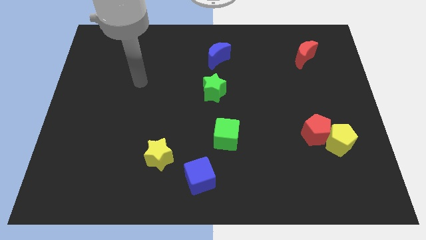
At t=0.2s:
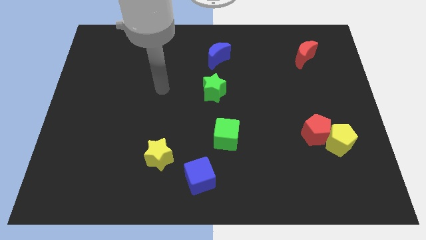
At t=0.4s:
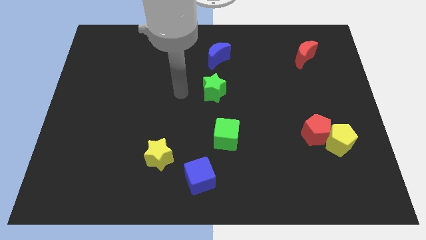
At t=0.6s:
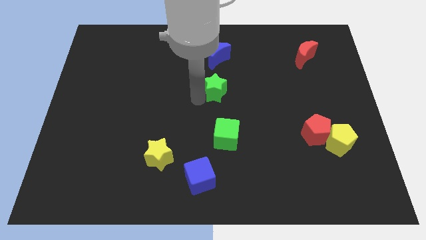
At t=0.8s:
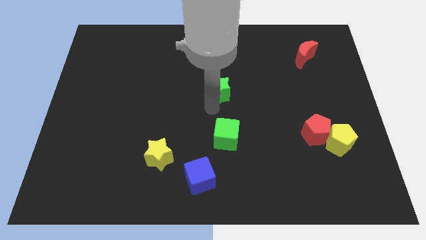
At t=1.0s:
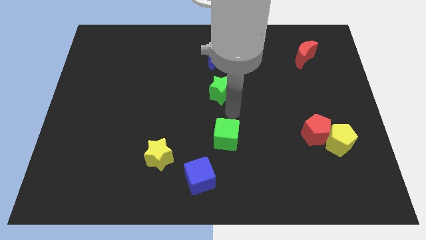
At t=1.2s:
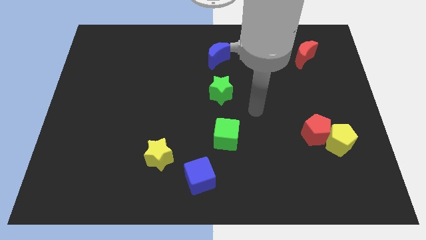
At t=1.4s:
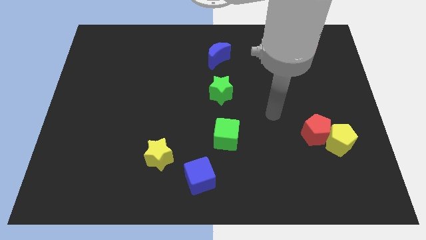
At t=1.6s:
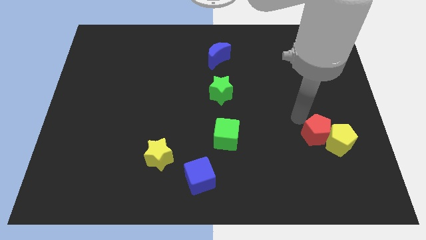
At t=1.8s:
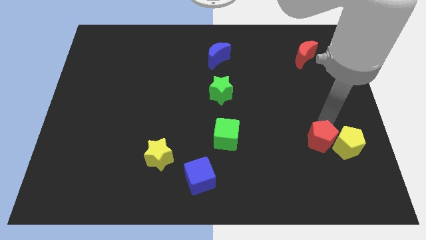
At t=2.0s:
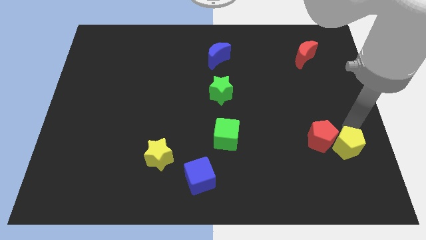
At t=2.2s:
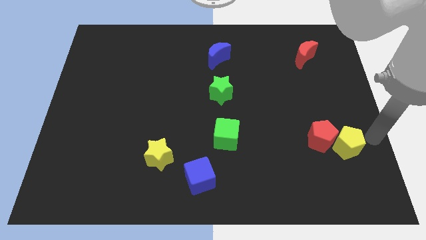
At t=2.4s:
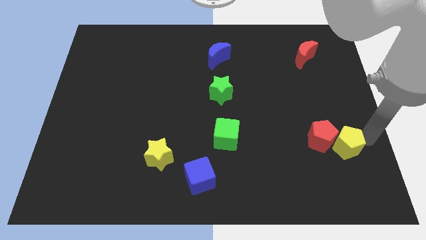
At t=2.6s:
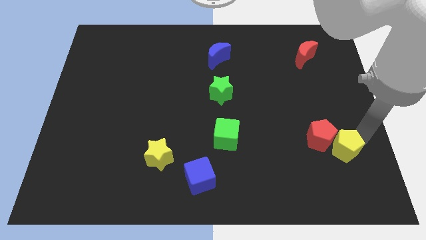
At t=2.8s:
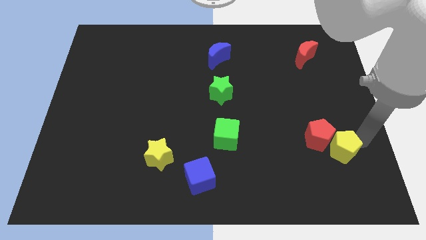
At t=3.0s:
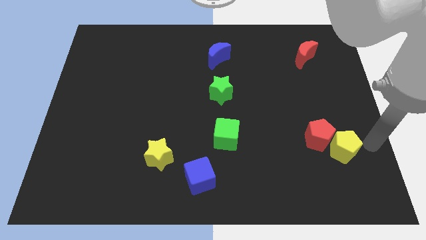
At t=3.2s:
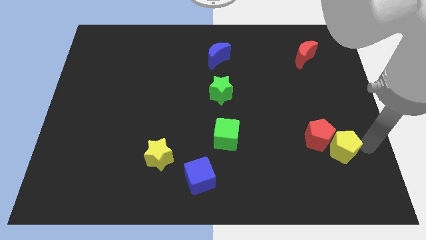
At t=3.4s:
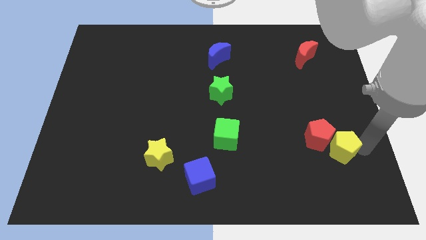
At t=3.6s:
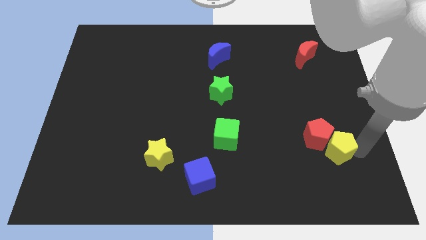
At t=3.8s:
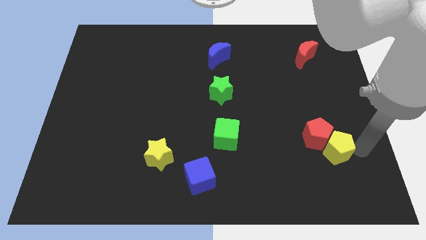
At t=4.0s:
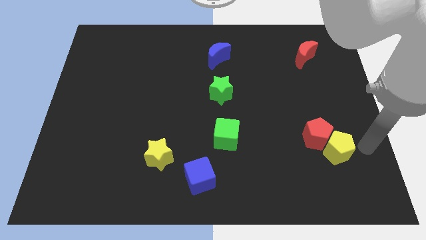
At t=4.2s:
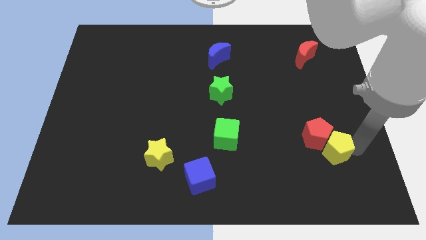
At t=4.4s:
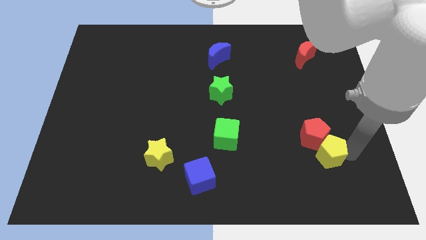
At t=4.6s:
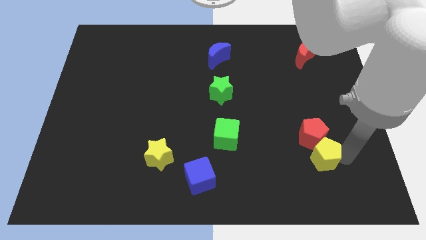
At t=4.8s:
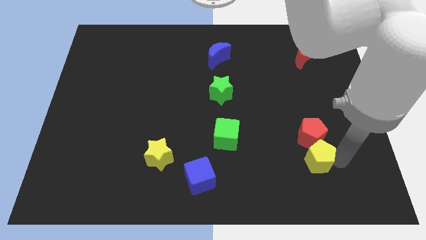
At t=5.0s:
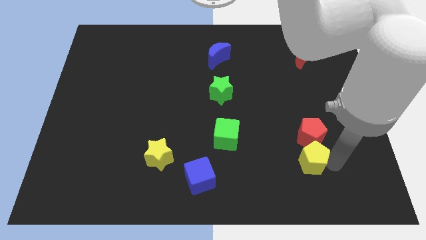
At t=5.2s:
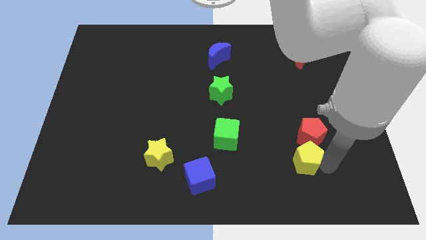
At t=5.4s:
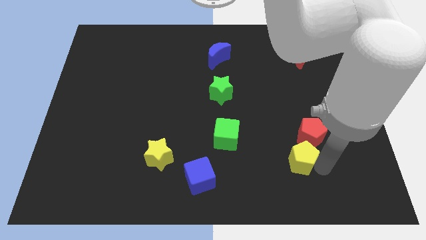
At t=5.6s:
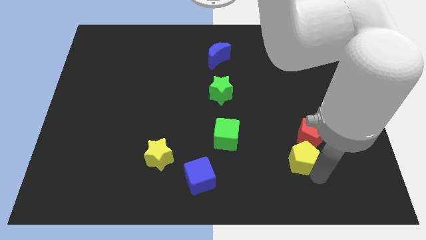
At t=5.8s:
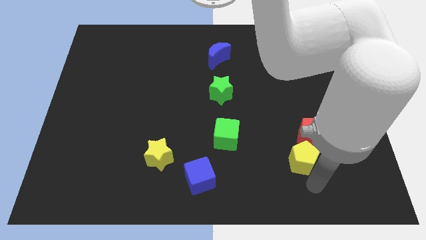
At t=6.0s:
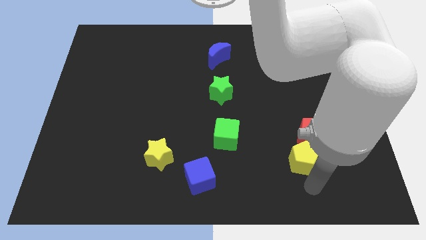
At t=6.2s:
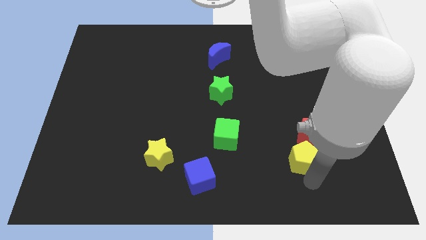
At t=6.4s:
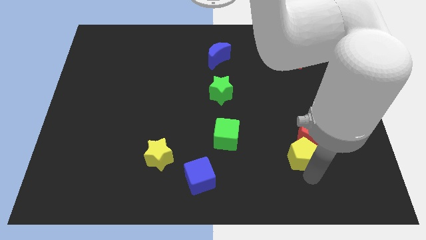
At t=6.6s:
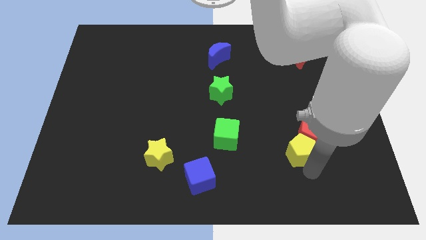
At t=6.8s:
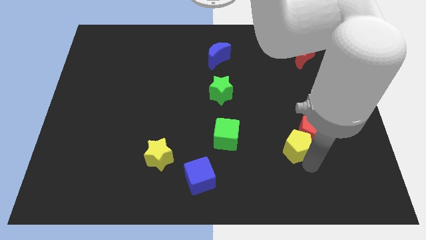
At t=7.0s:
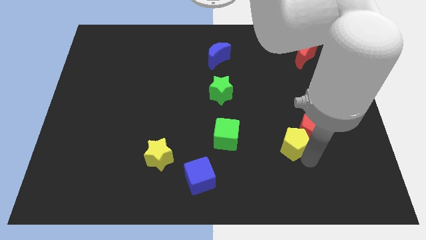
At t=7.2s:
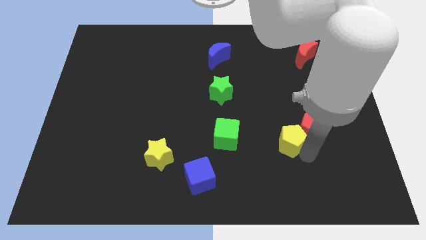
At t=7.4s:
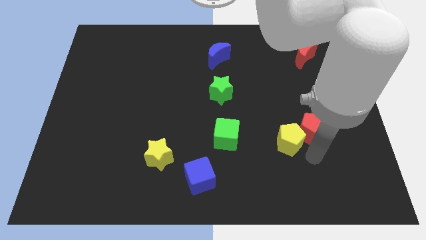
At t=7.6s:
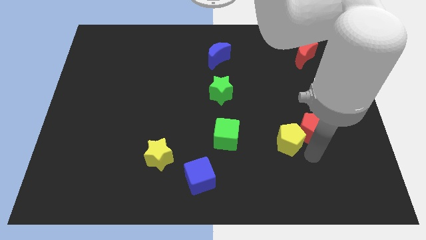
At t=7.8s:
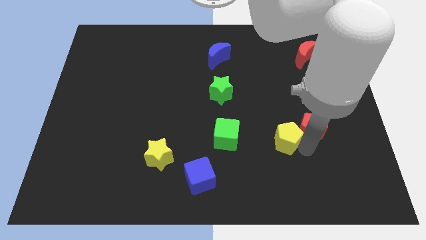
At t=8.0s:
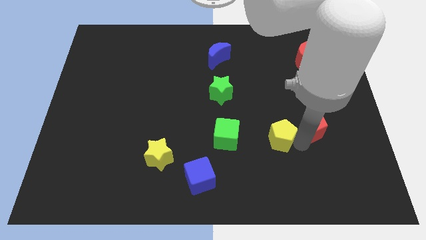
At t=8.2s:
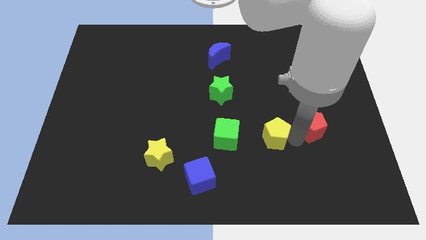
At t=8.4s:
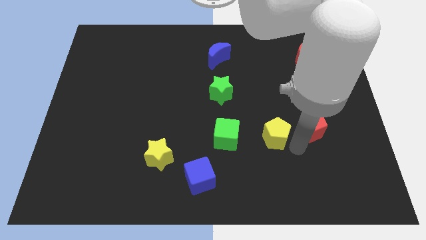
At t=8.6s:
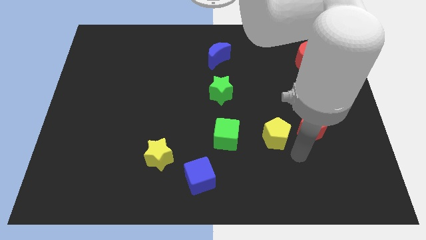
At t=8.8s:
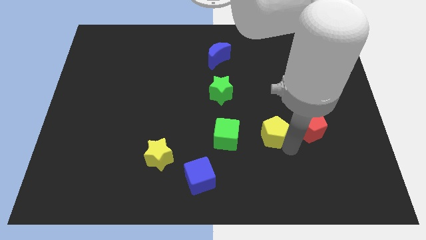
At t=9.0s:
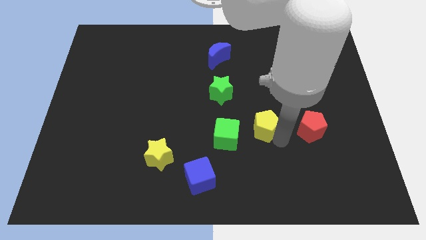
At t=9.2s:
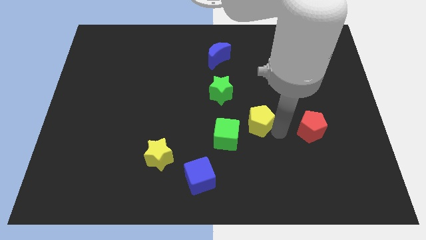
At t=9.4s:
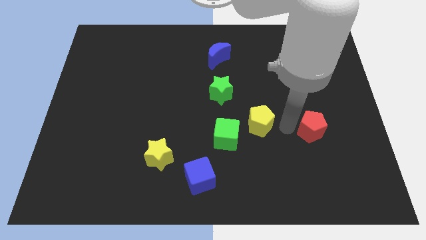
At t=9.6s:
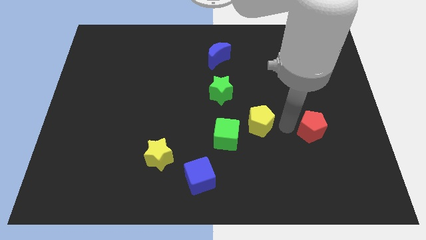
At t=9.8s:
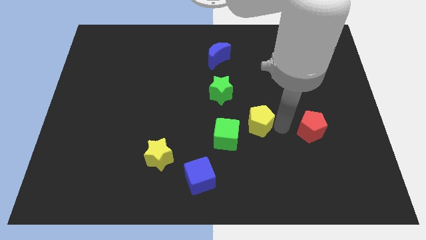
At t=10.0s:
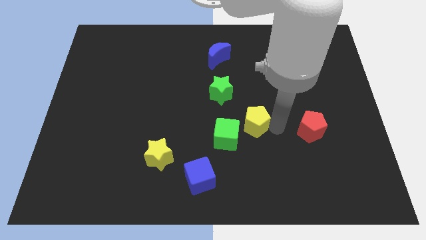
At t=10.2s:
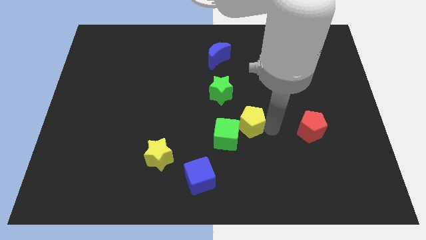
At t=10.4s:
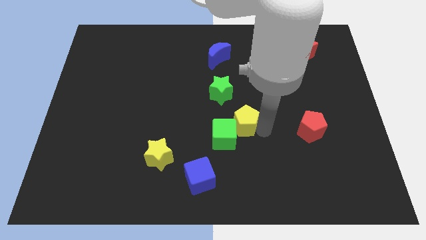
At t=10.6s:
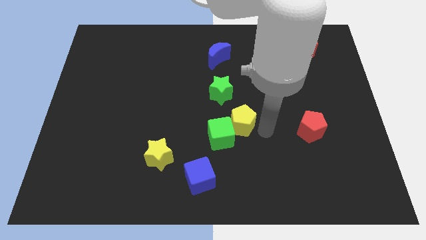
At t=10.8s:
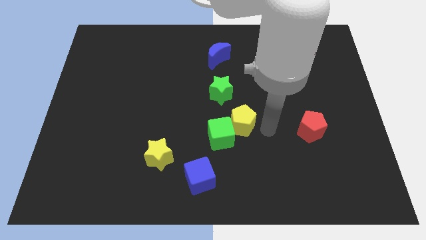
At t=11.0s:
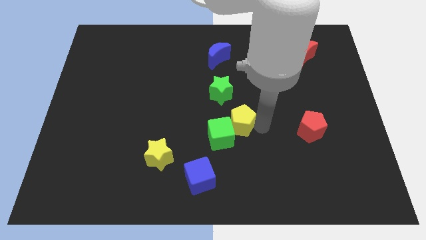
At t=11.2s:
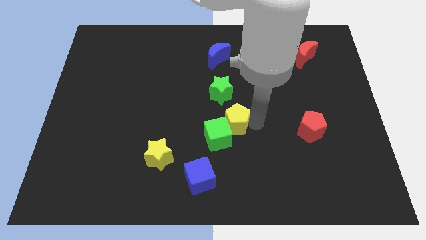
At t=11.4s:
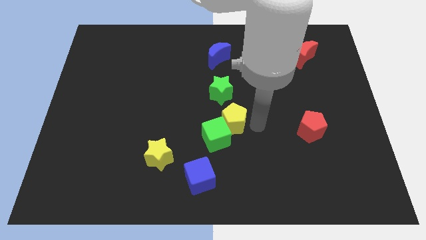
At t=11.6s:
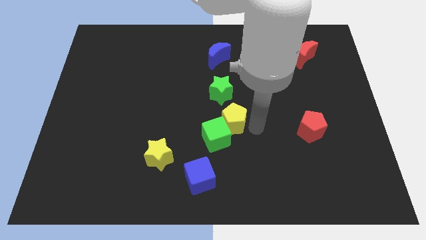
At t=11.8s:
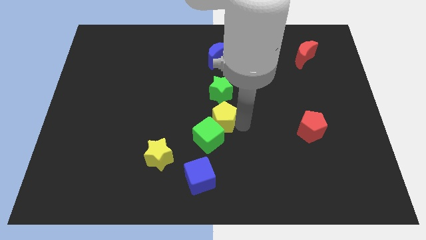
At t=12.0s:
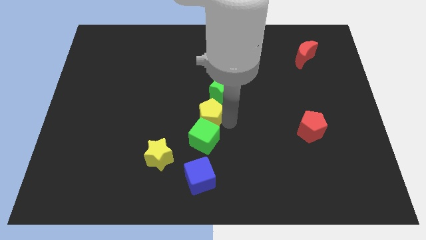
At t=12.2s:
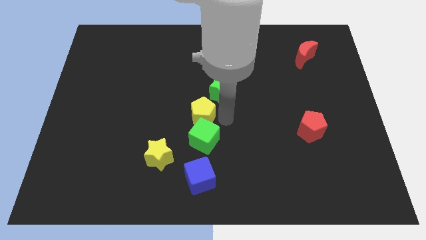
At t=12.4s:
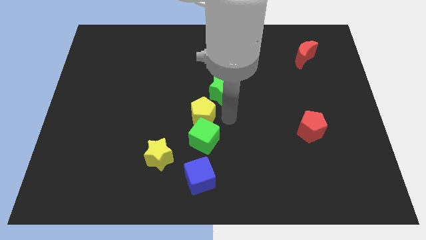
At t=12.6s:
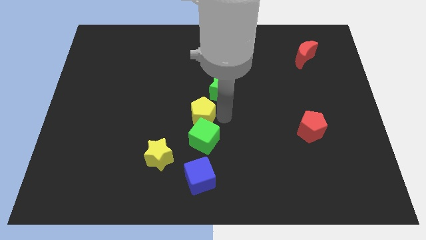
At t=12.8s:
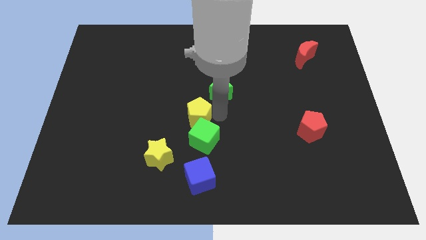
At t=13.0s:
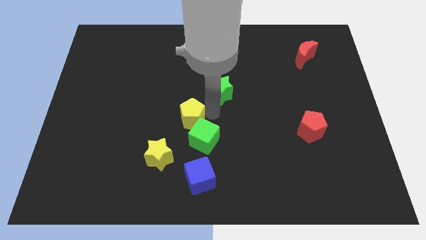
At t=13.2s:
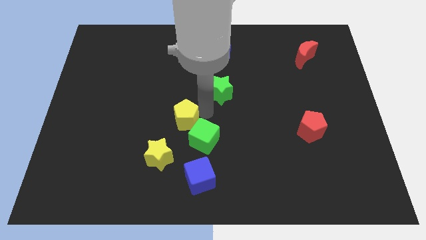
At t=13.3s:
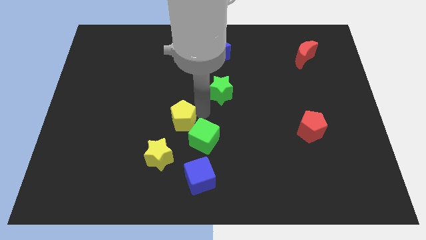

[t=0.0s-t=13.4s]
push the yellow pentagon to the top of the yellow star

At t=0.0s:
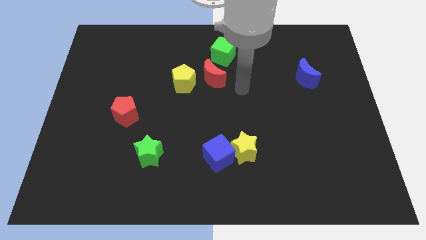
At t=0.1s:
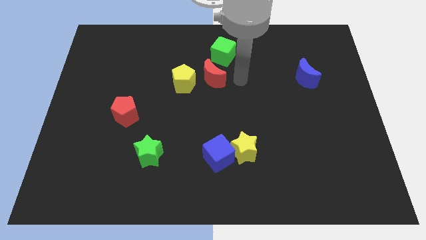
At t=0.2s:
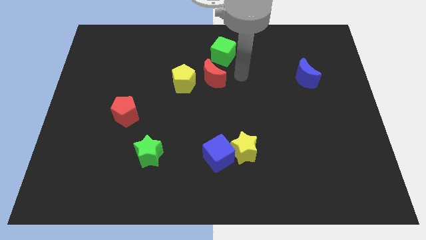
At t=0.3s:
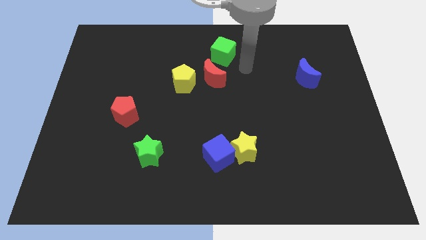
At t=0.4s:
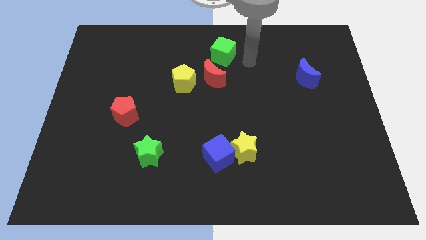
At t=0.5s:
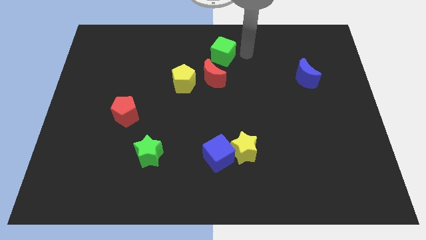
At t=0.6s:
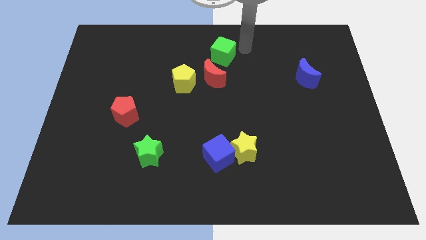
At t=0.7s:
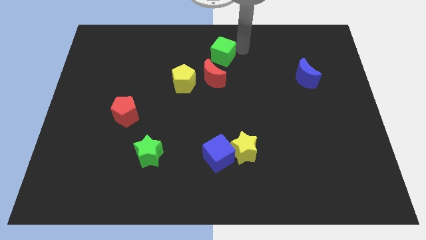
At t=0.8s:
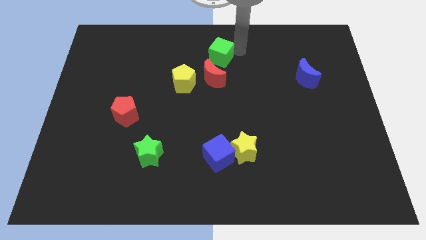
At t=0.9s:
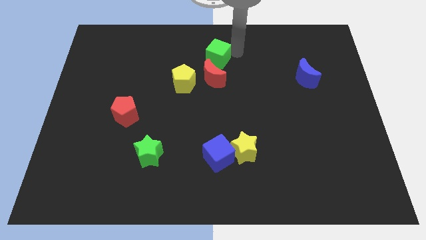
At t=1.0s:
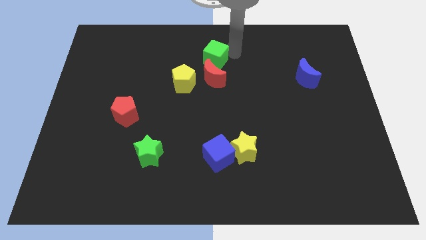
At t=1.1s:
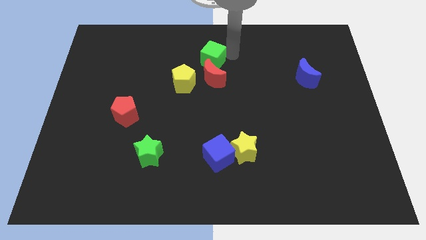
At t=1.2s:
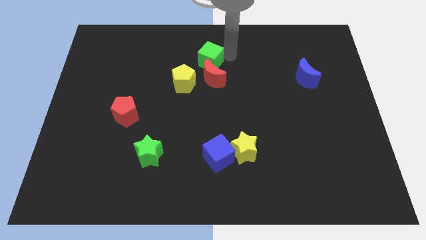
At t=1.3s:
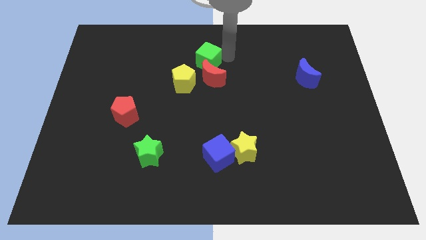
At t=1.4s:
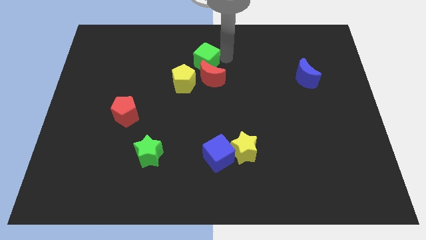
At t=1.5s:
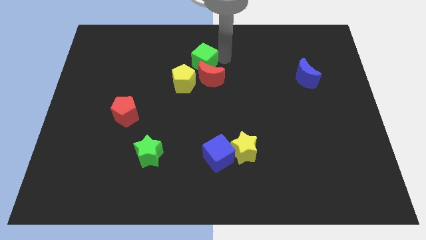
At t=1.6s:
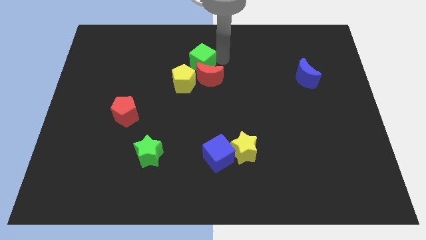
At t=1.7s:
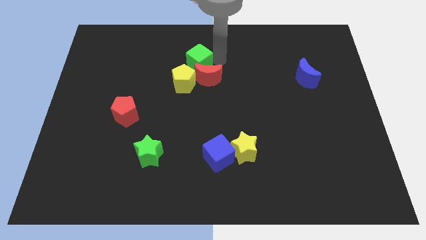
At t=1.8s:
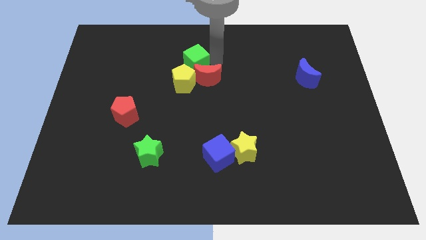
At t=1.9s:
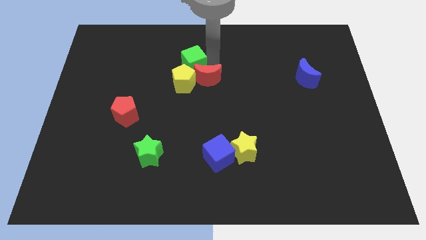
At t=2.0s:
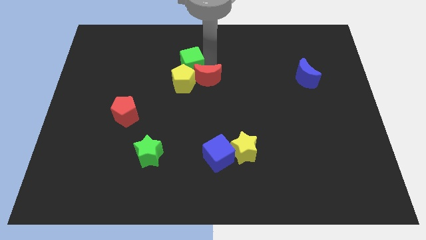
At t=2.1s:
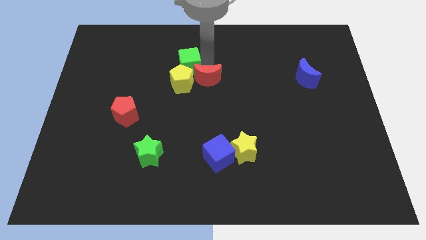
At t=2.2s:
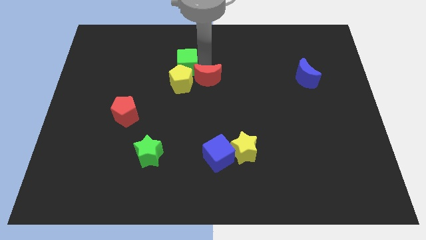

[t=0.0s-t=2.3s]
put the green cube to the top left of the yellow pentagon
